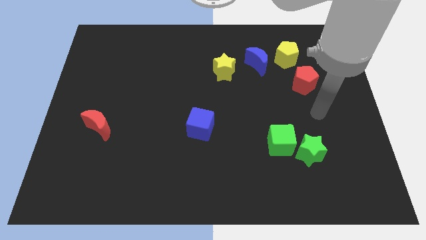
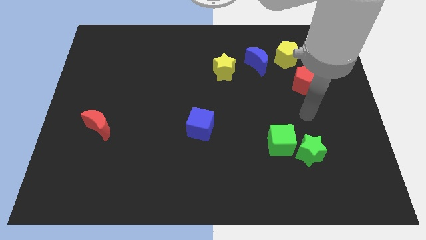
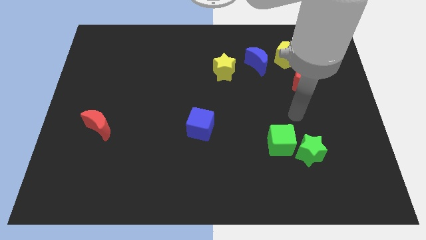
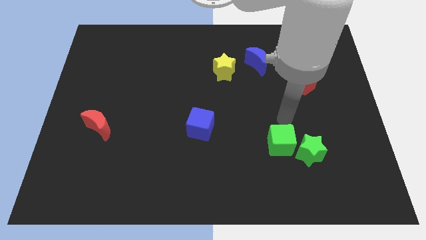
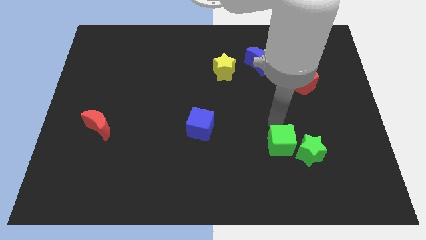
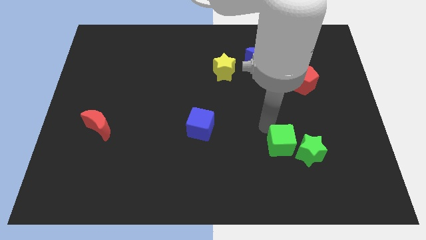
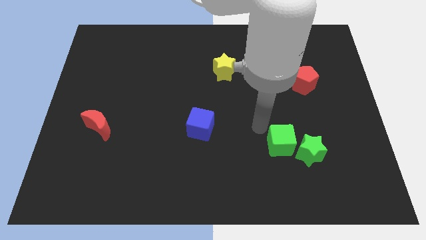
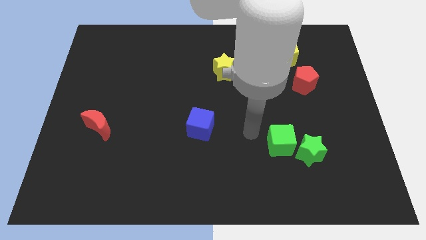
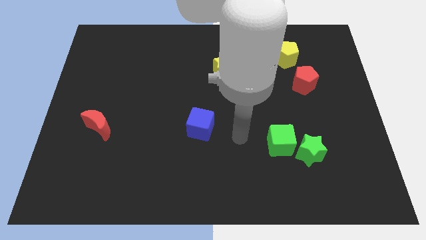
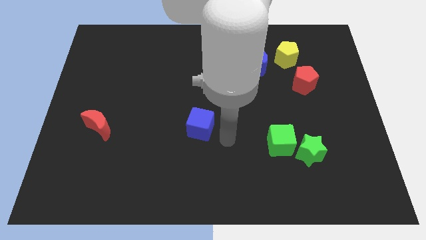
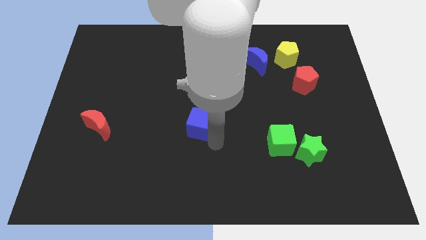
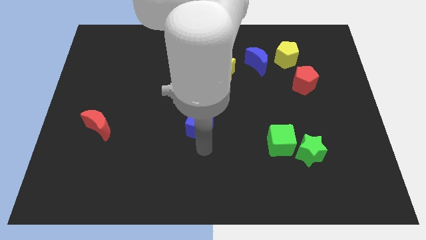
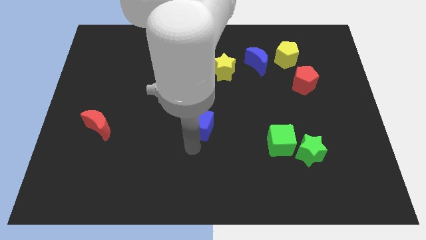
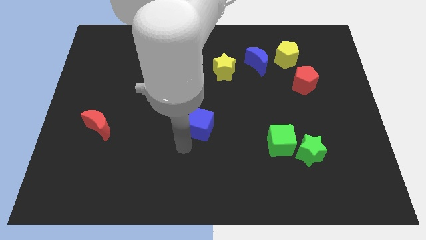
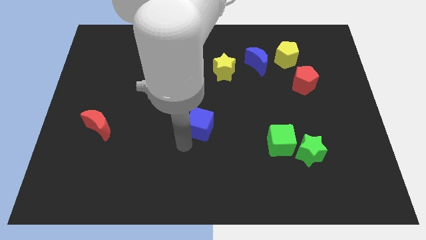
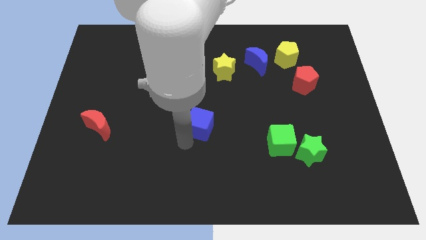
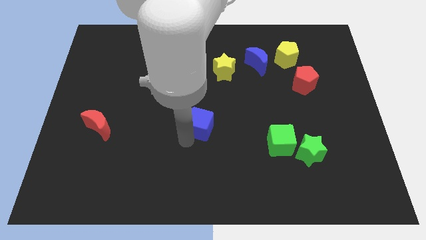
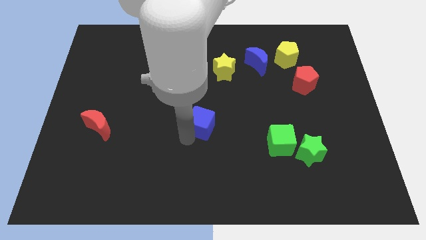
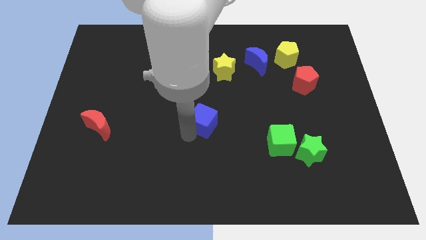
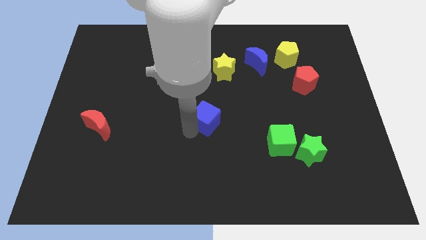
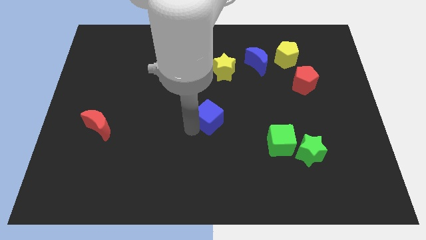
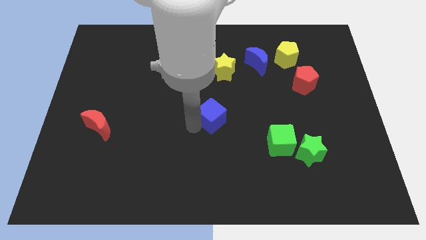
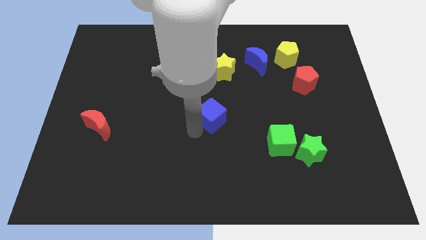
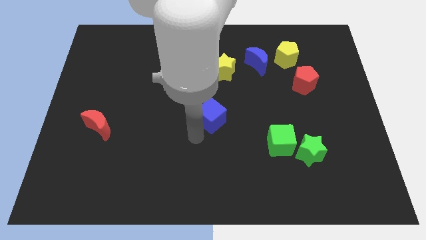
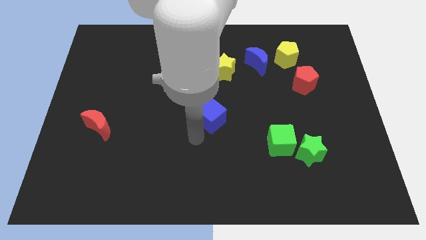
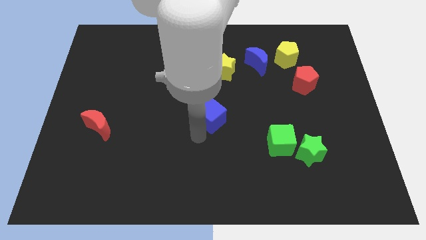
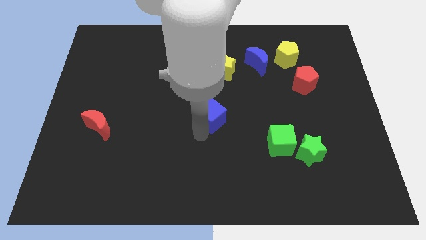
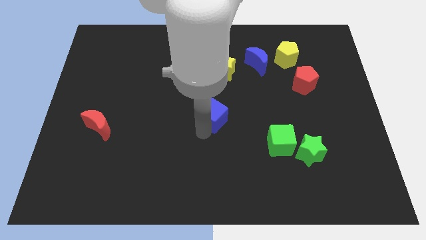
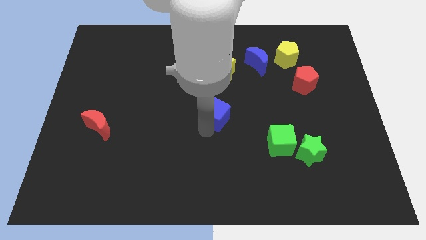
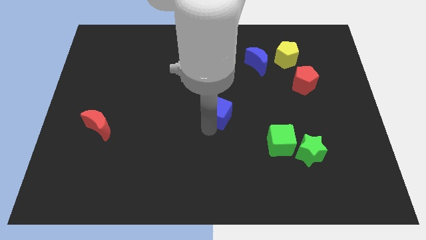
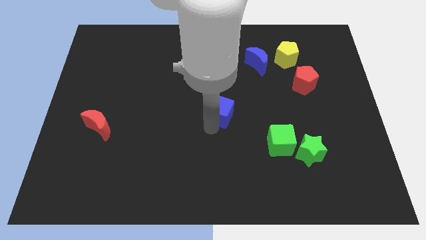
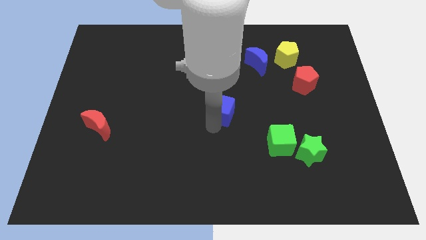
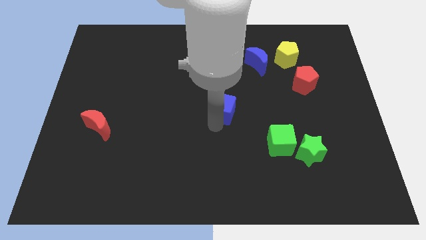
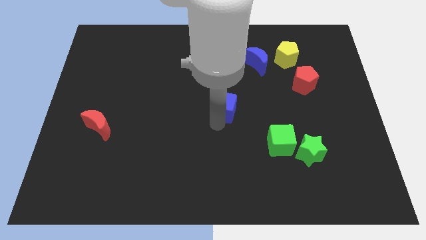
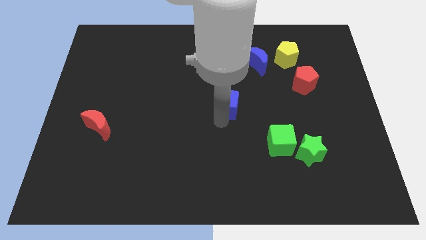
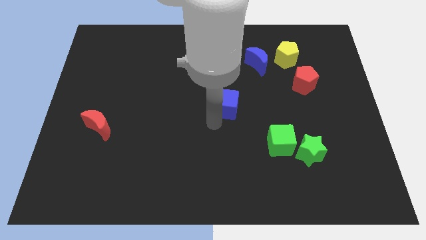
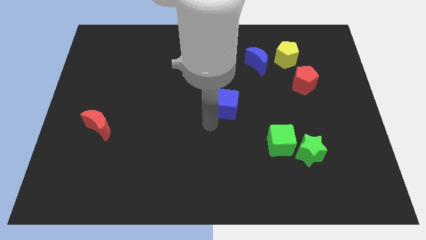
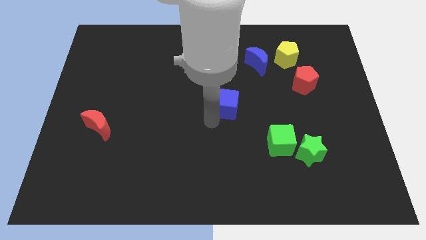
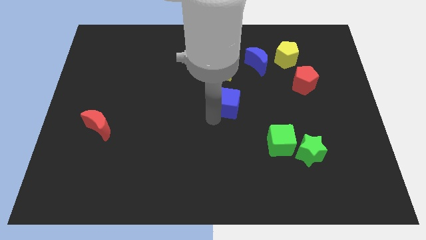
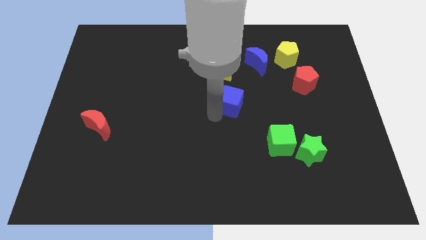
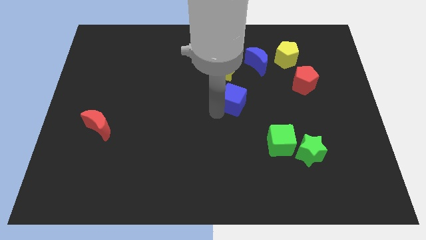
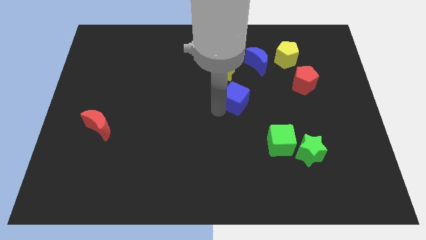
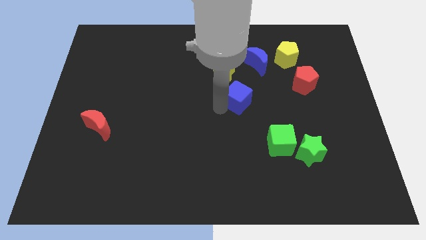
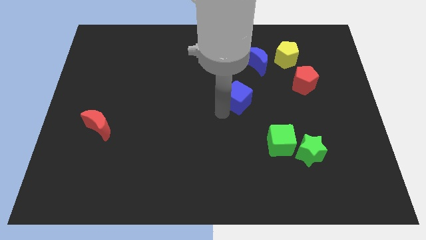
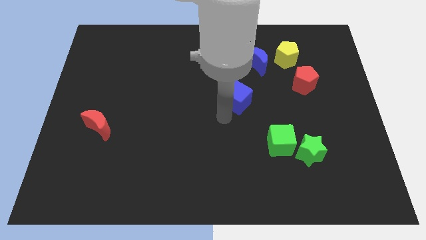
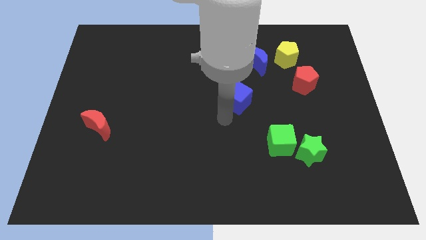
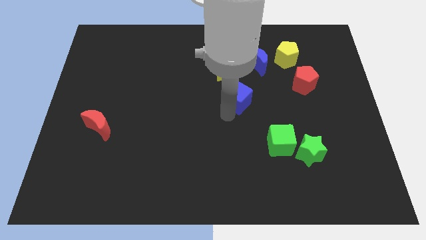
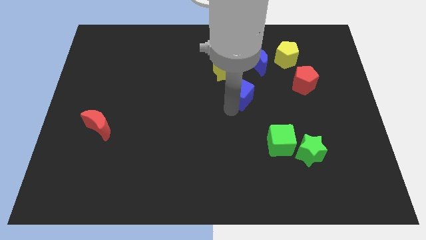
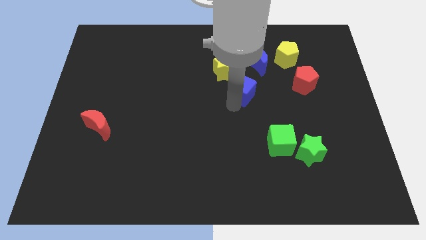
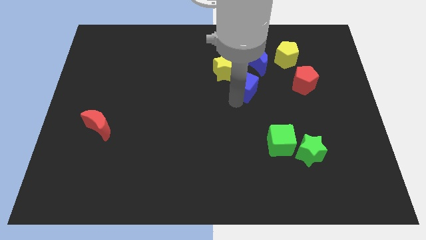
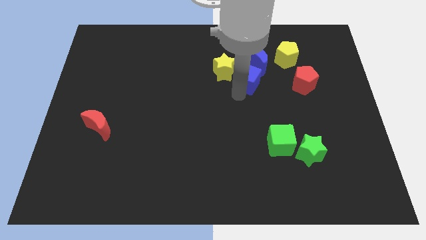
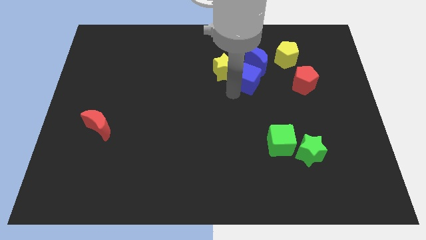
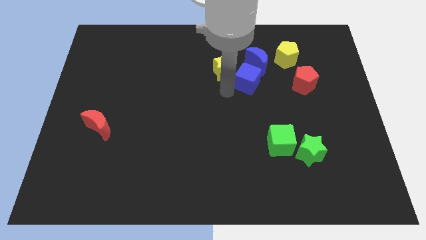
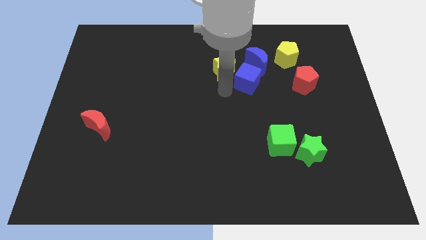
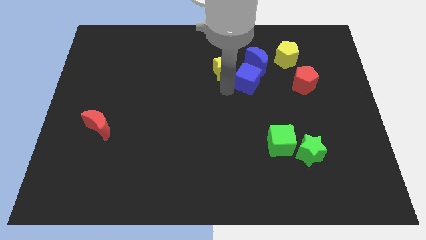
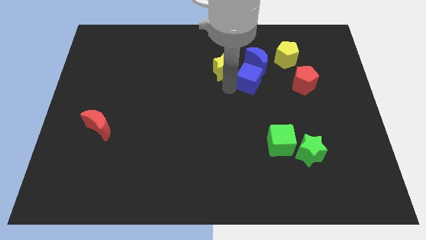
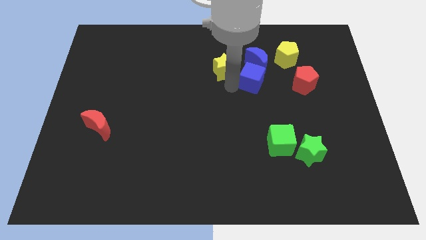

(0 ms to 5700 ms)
move the blue cube diagonally down and to the left of the yellow pentagon

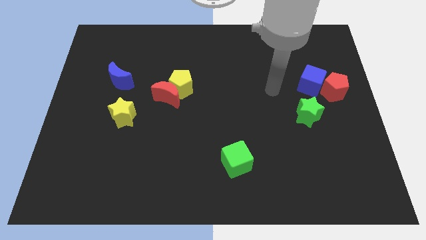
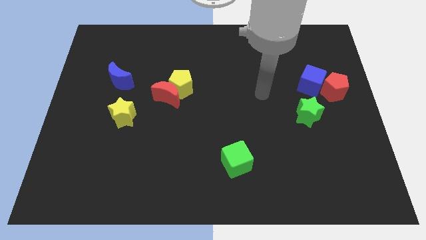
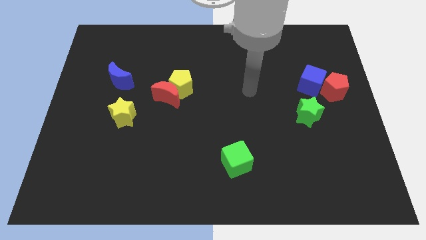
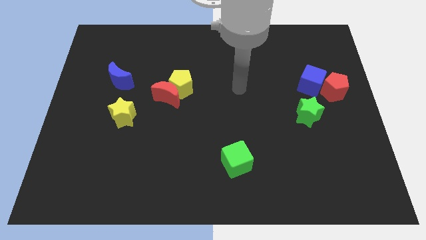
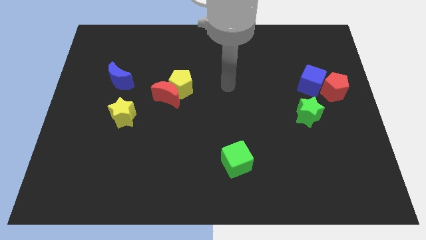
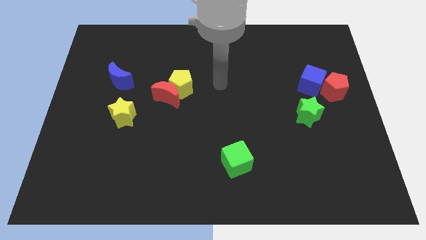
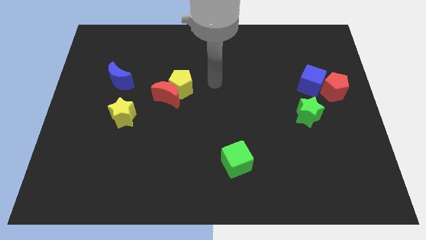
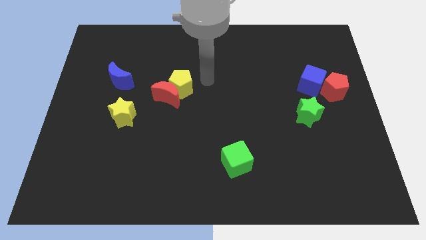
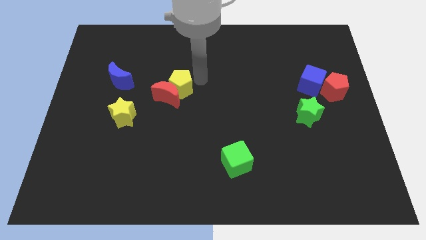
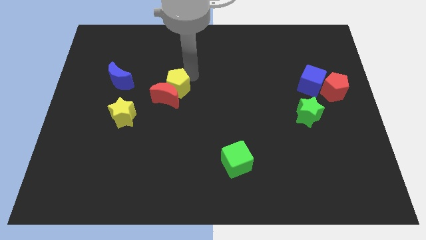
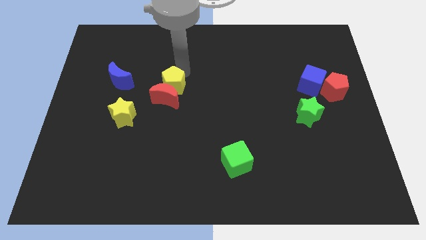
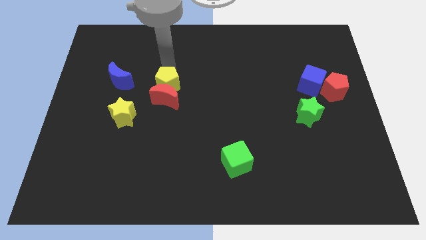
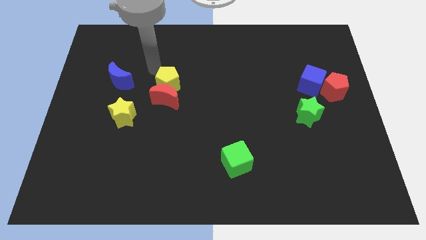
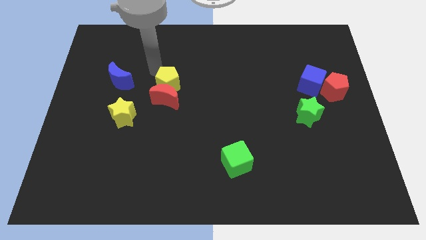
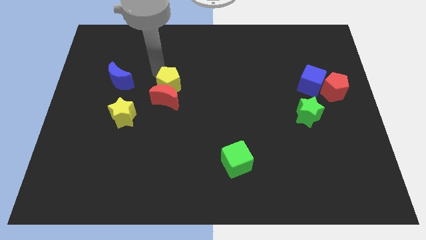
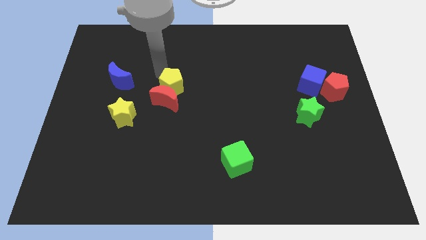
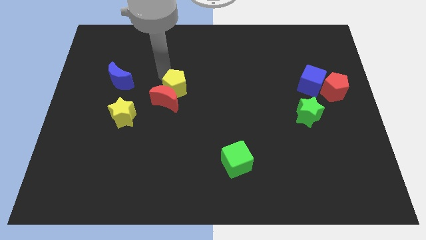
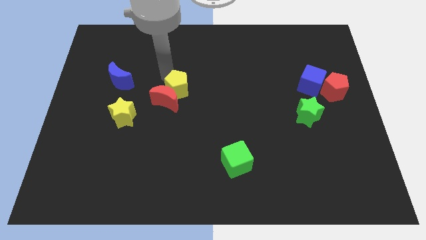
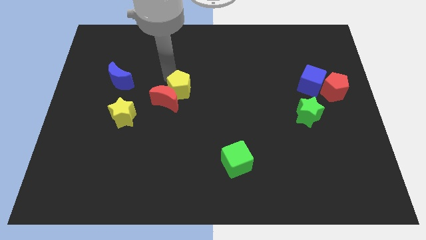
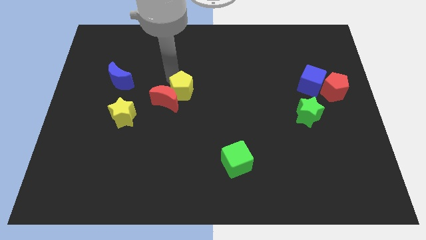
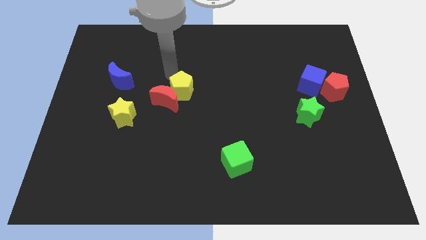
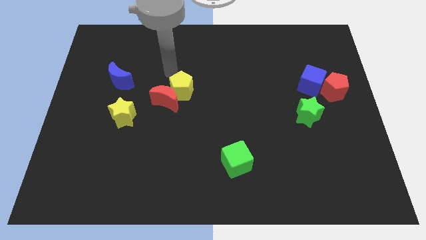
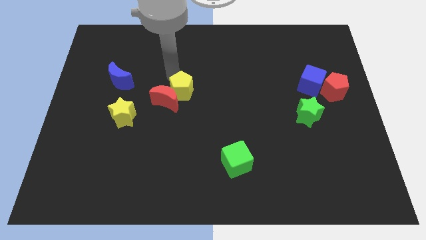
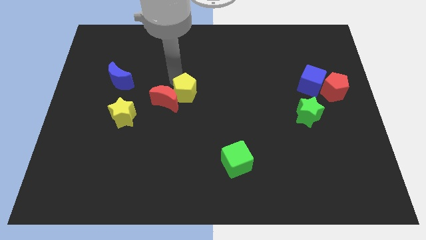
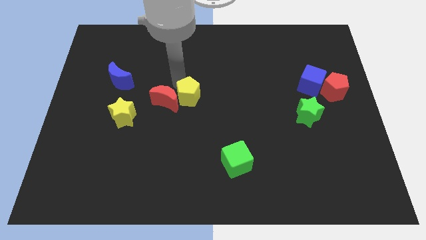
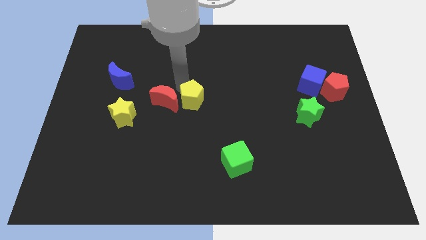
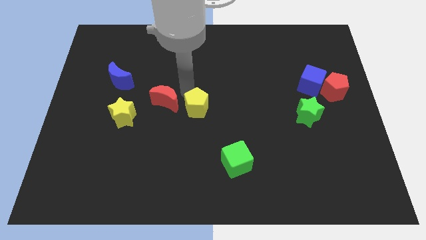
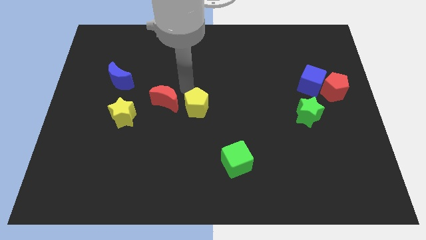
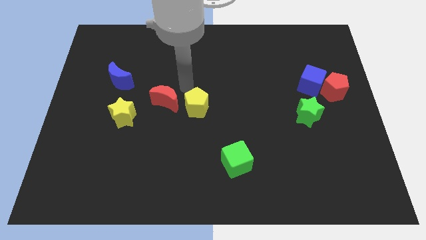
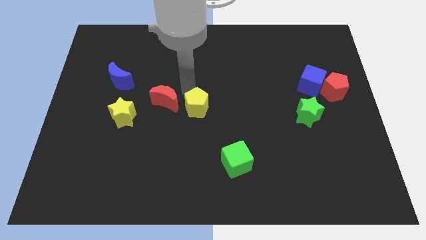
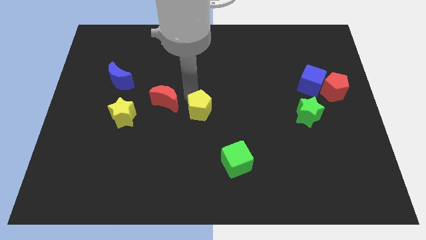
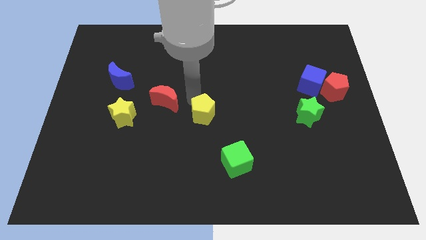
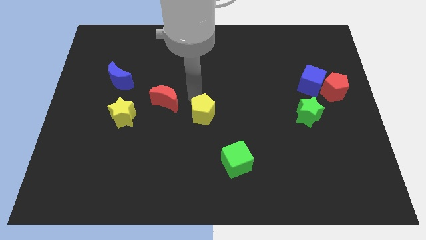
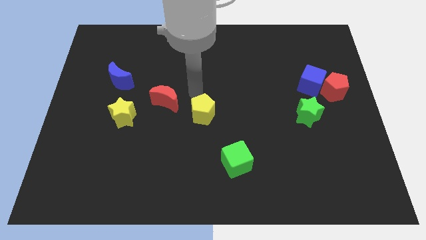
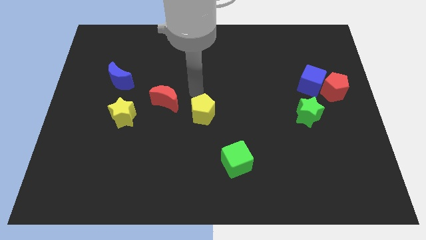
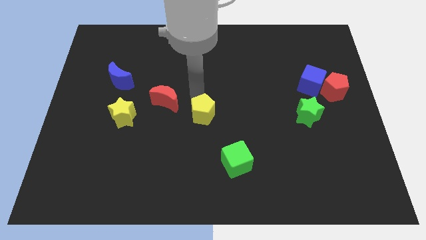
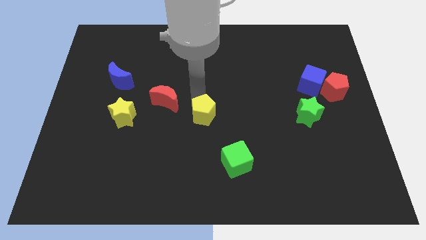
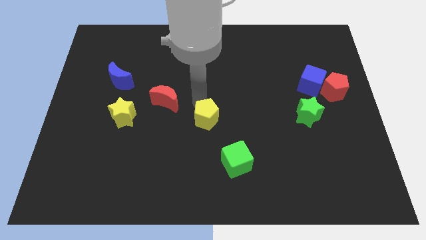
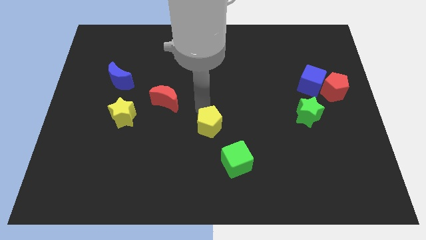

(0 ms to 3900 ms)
slide the yellow pentagon to the top left of the green cube
